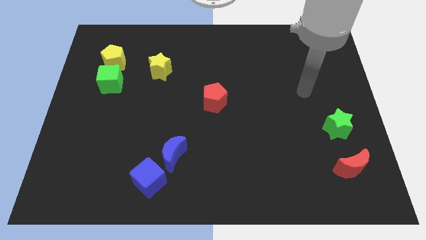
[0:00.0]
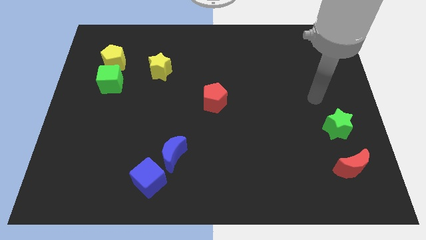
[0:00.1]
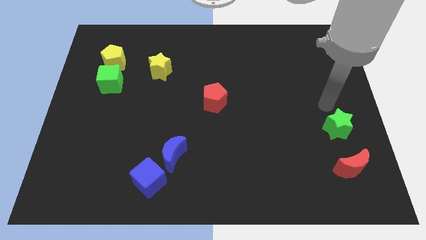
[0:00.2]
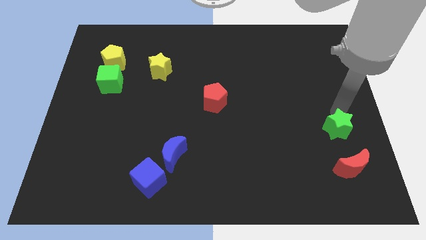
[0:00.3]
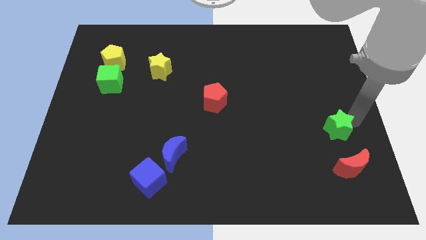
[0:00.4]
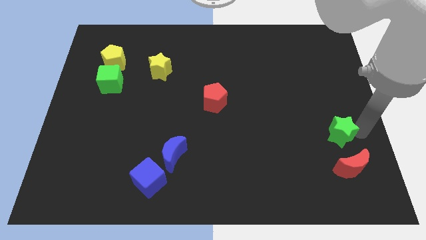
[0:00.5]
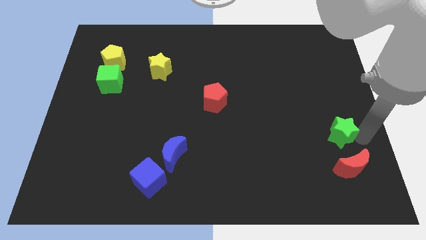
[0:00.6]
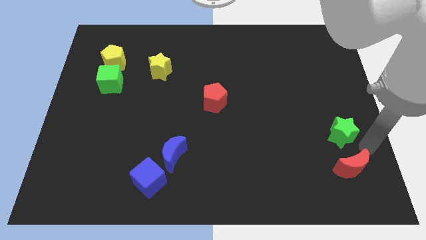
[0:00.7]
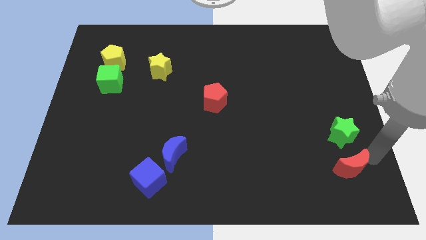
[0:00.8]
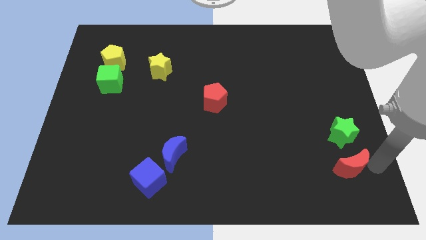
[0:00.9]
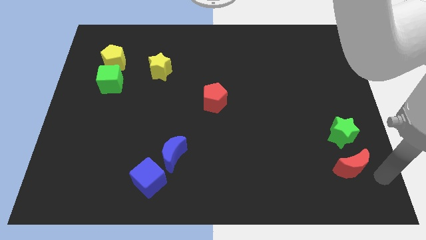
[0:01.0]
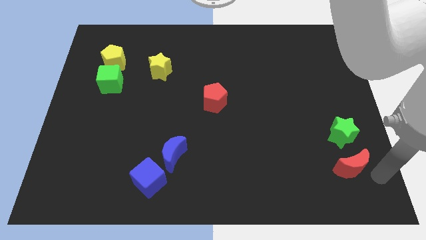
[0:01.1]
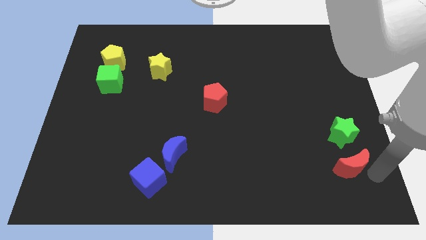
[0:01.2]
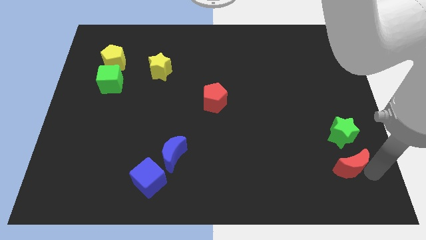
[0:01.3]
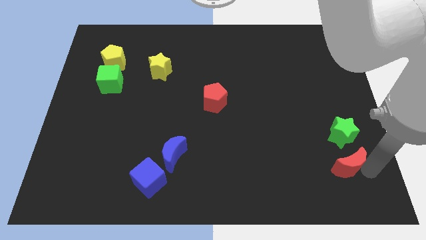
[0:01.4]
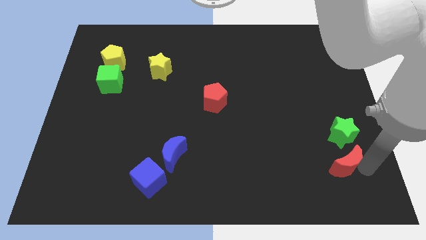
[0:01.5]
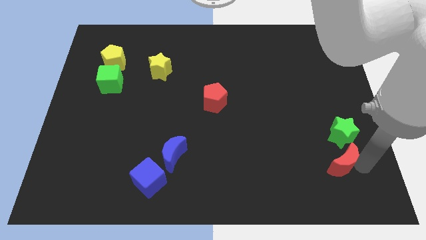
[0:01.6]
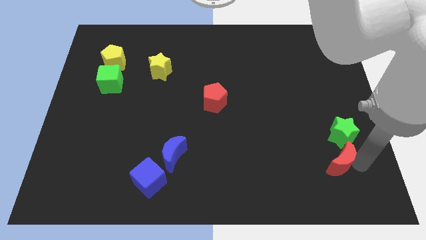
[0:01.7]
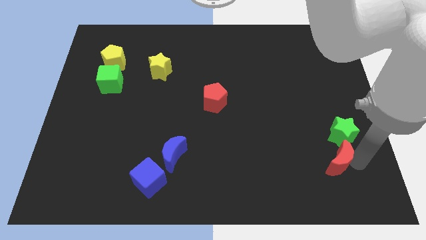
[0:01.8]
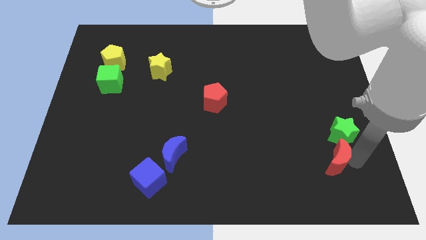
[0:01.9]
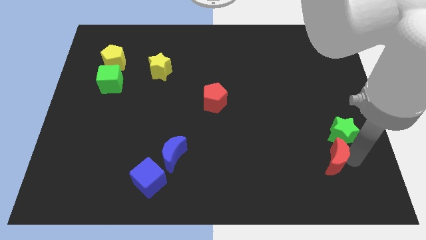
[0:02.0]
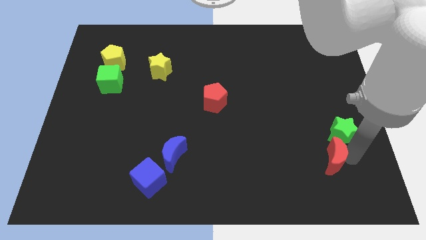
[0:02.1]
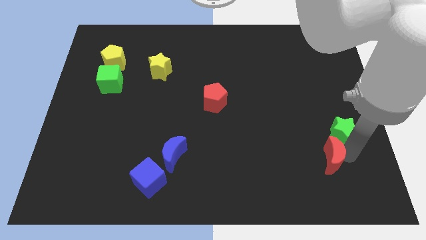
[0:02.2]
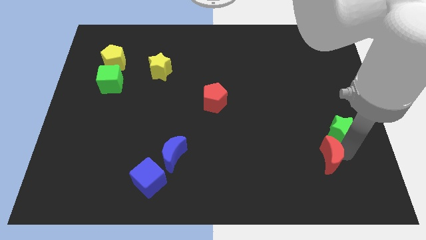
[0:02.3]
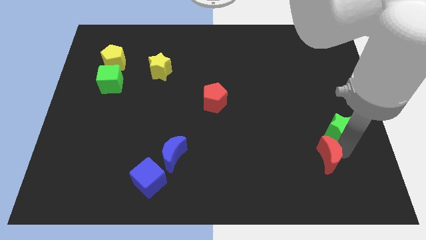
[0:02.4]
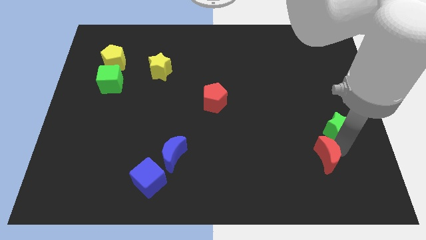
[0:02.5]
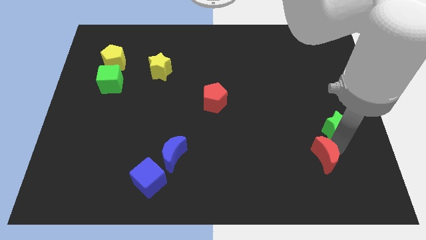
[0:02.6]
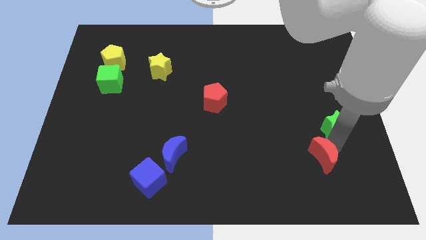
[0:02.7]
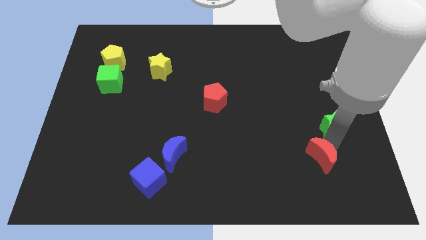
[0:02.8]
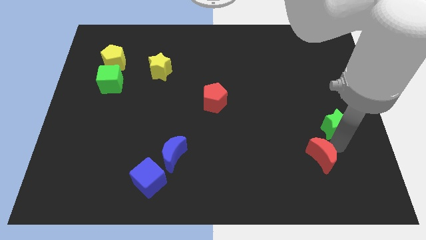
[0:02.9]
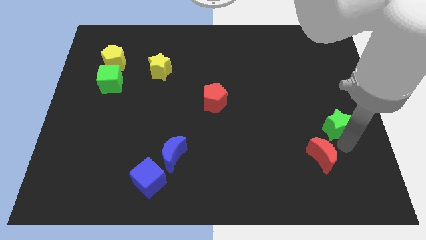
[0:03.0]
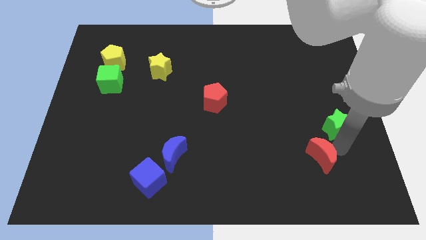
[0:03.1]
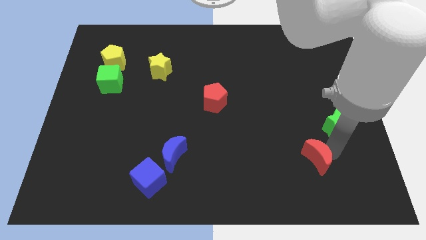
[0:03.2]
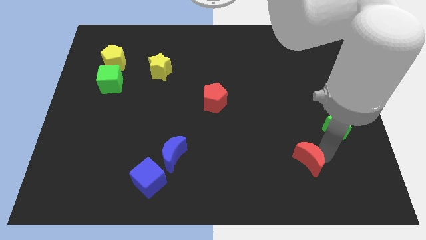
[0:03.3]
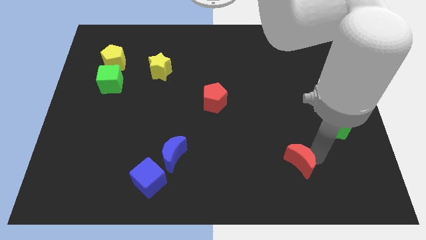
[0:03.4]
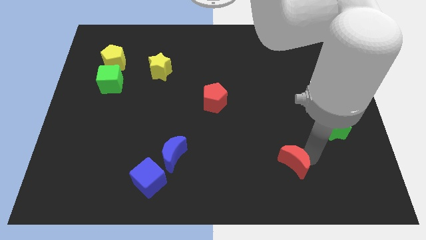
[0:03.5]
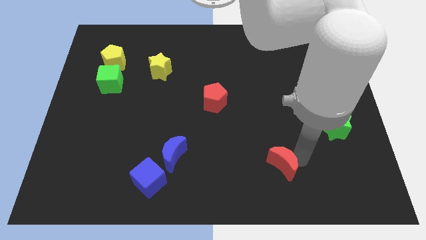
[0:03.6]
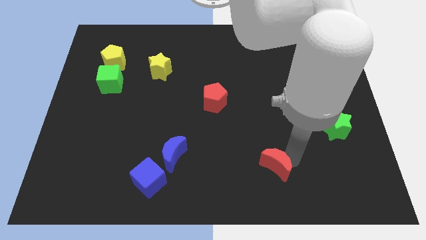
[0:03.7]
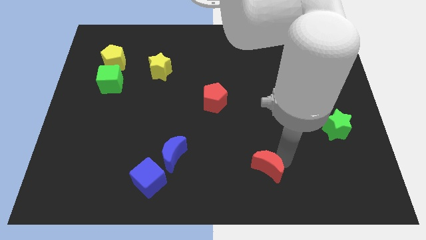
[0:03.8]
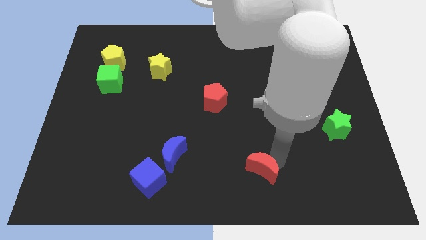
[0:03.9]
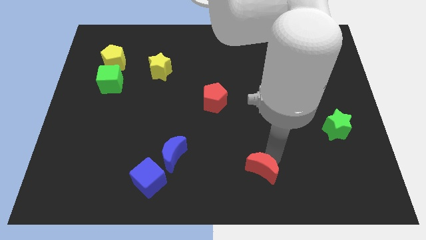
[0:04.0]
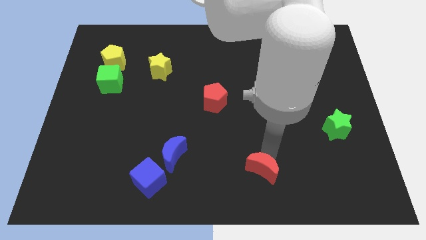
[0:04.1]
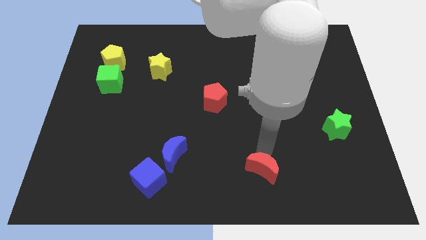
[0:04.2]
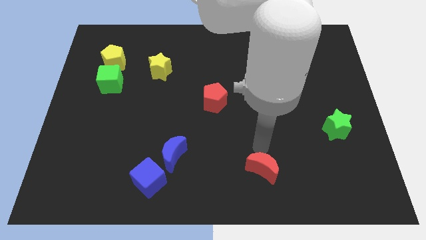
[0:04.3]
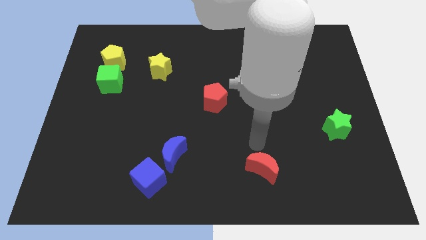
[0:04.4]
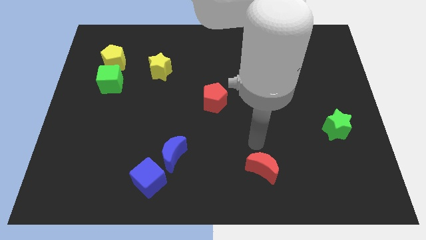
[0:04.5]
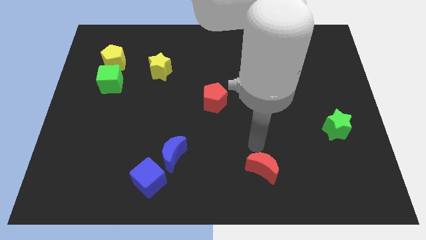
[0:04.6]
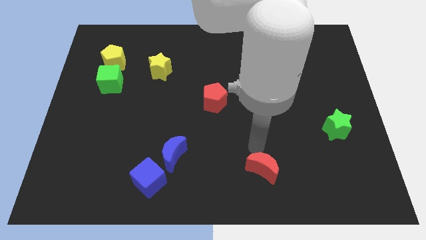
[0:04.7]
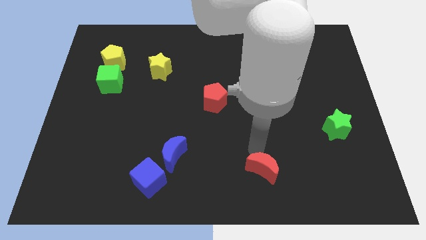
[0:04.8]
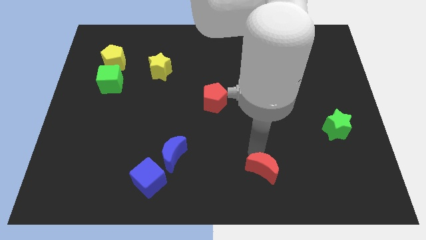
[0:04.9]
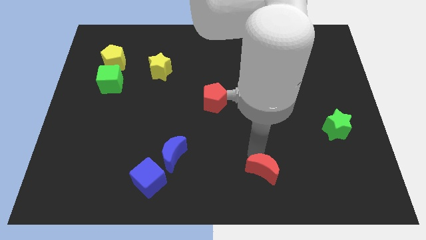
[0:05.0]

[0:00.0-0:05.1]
move the red moon to the bottom
